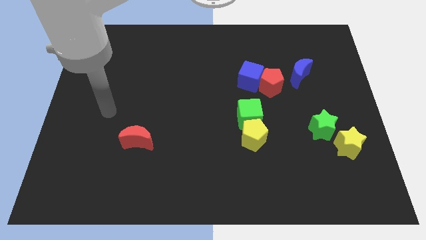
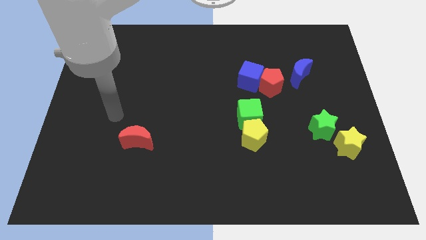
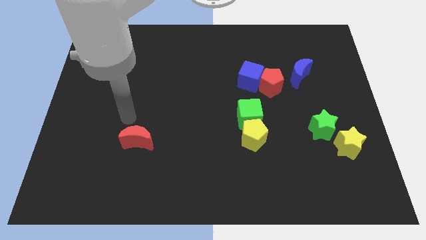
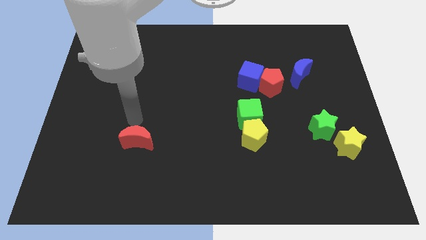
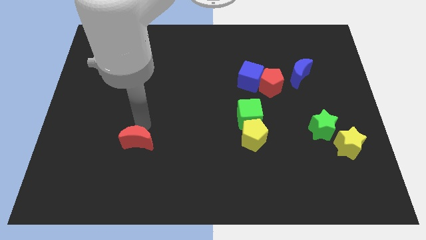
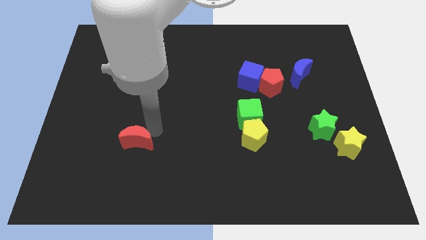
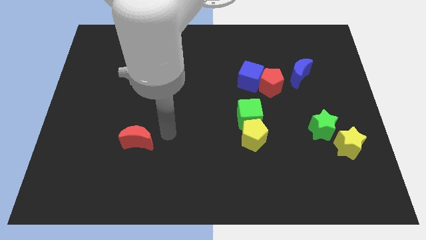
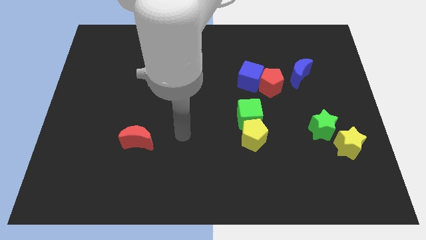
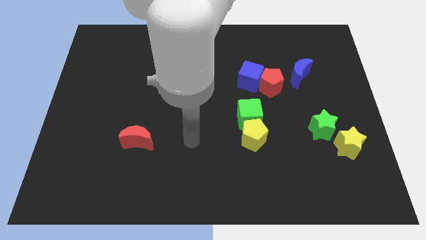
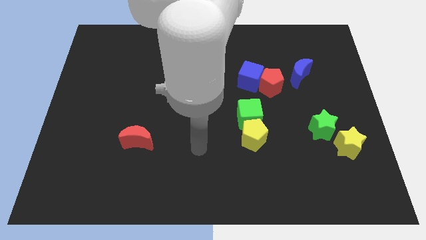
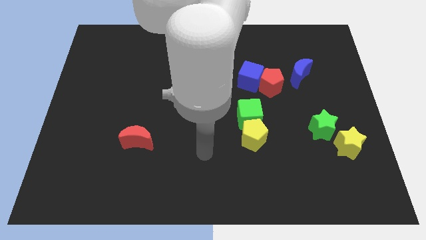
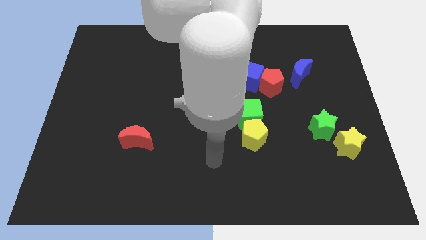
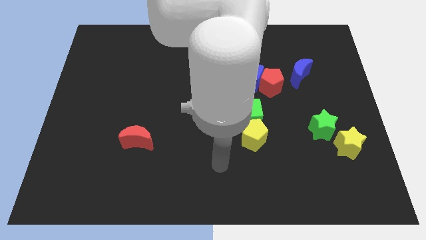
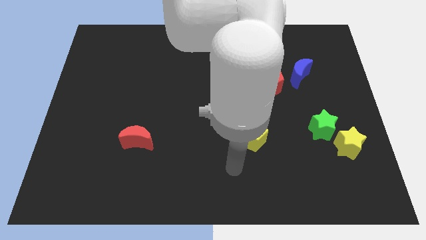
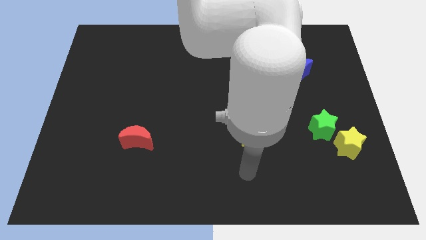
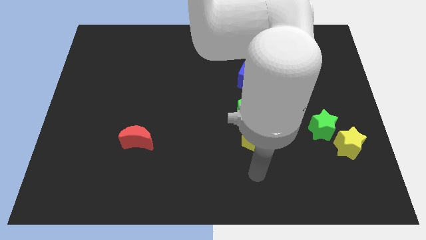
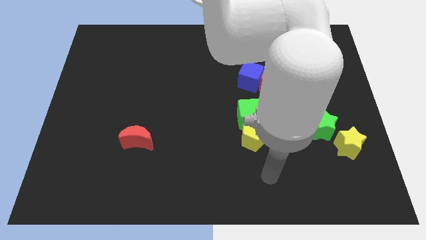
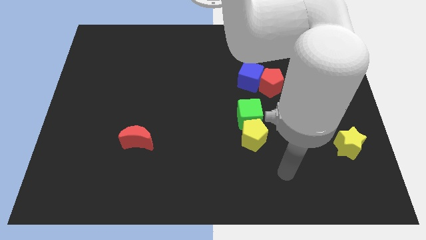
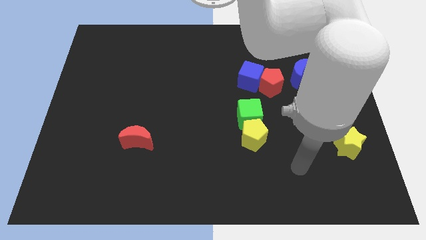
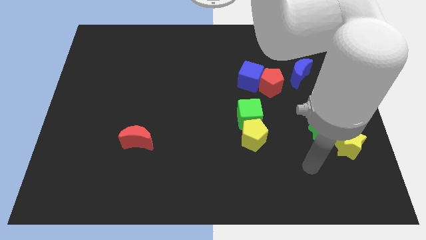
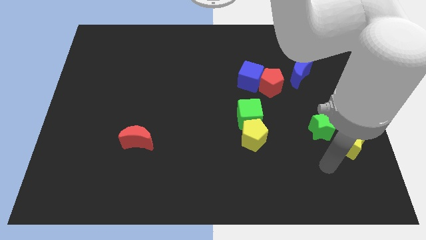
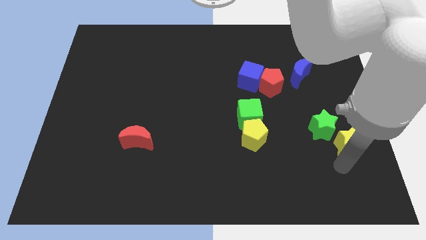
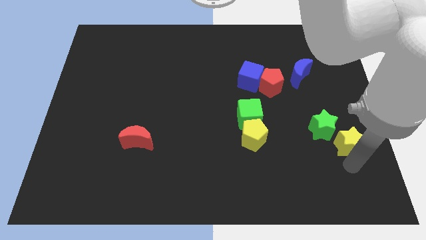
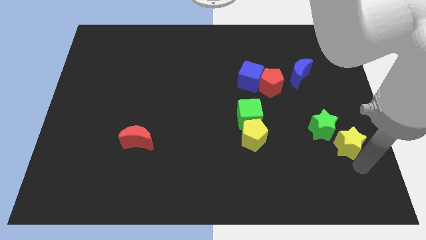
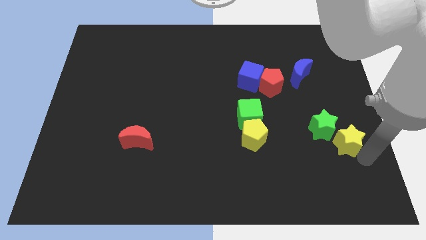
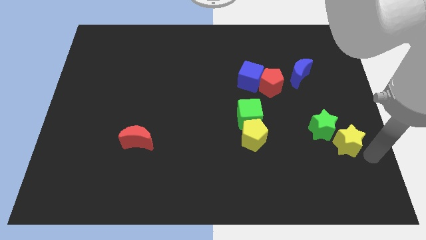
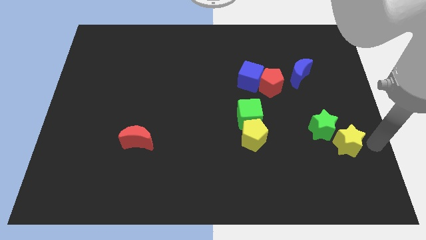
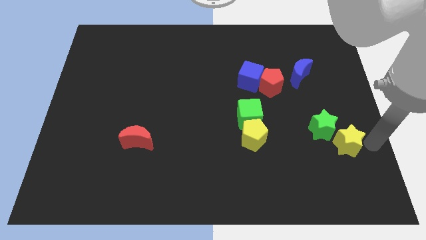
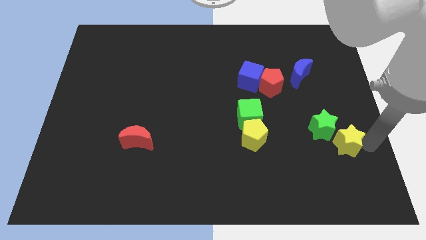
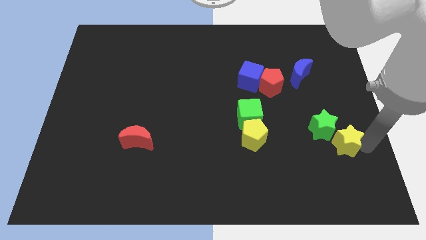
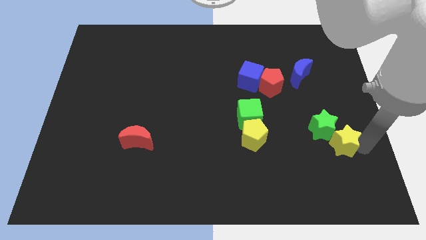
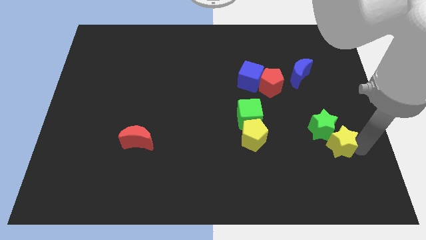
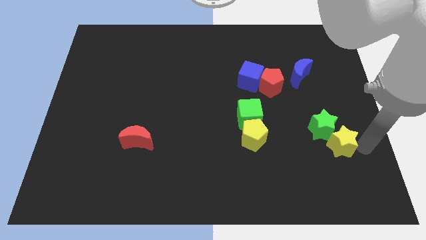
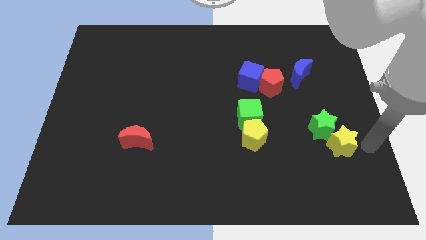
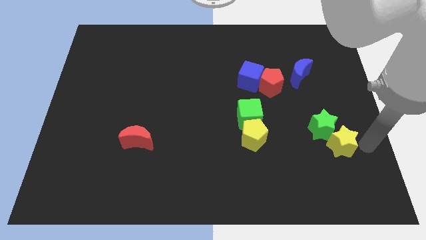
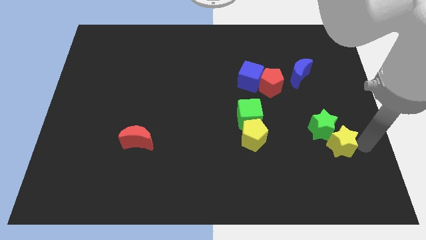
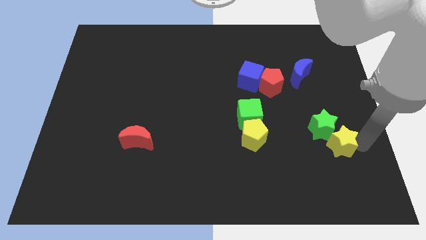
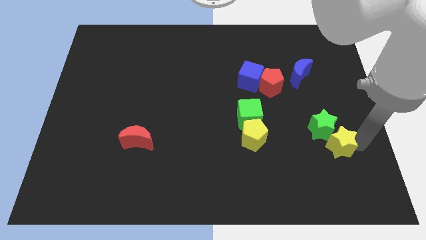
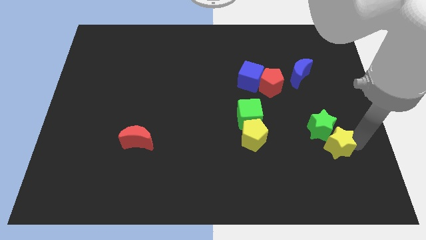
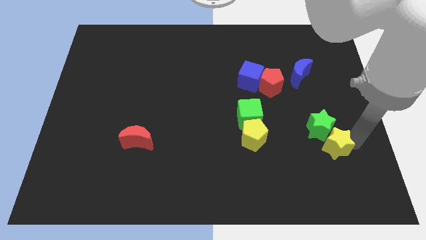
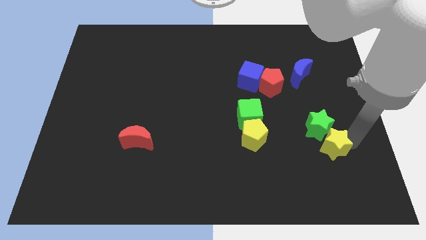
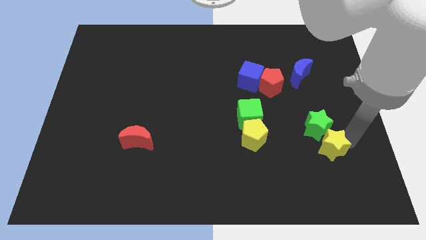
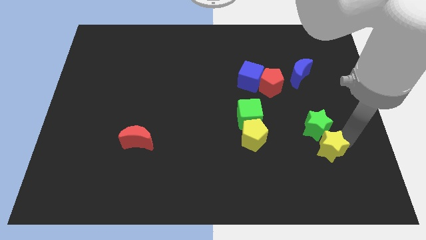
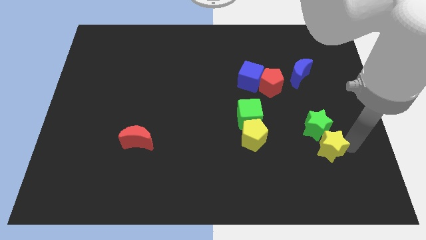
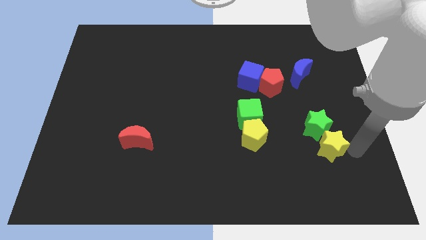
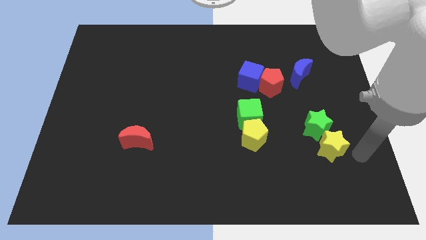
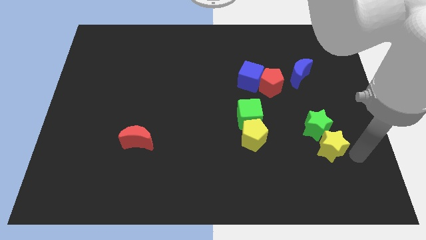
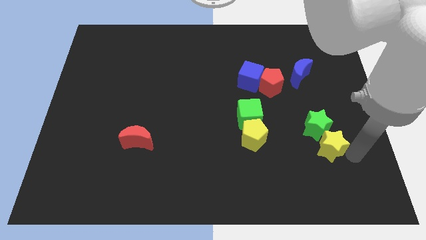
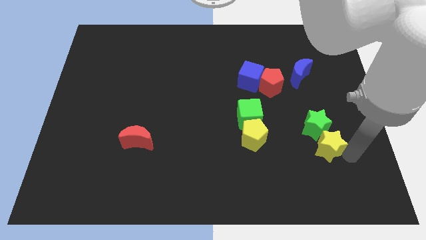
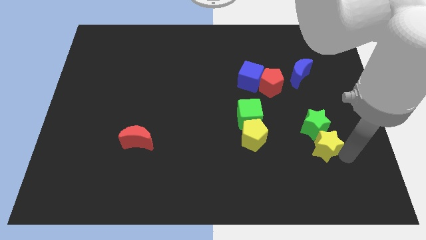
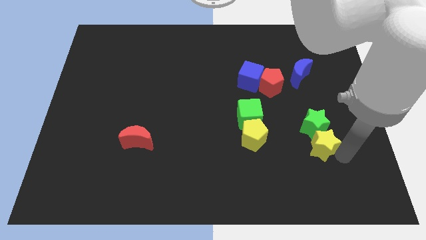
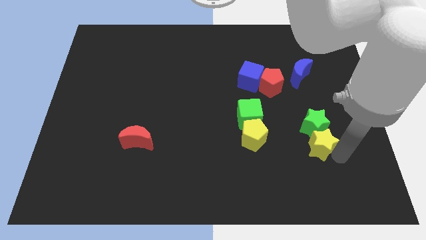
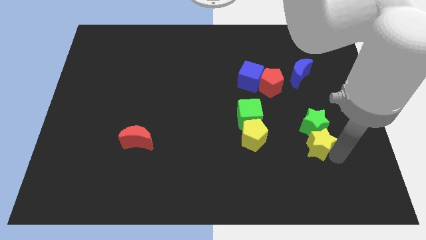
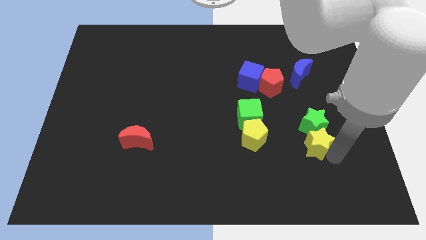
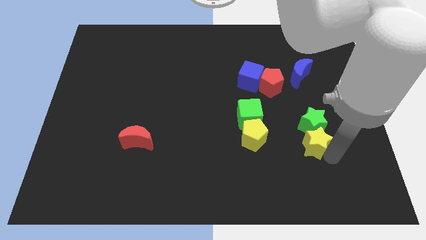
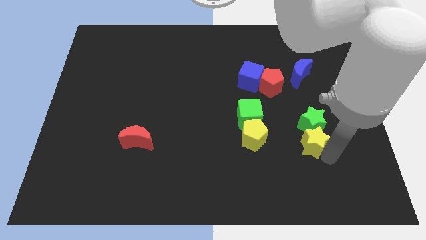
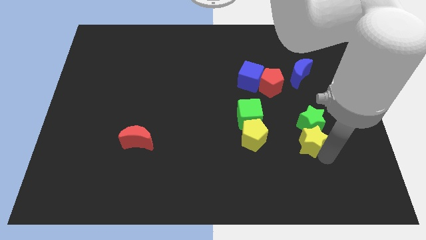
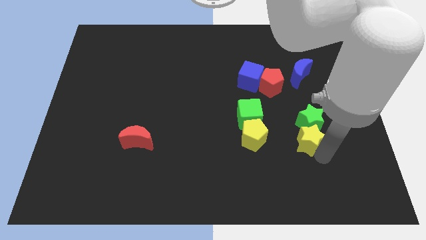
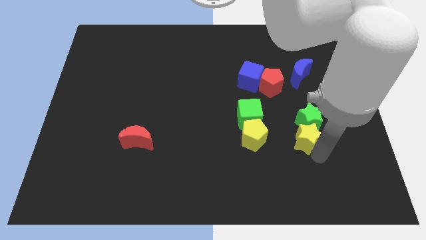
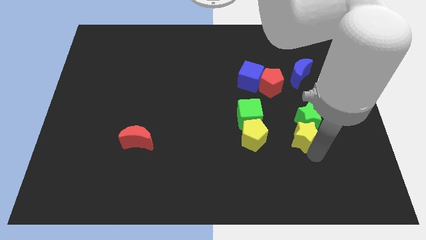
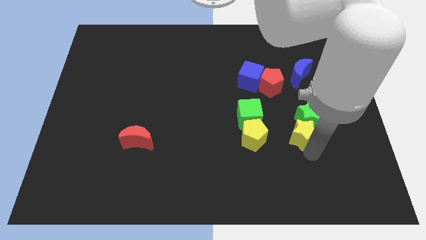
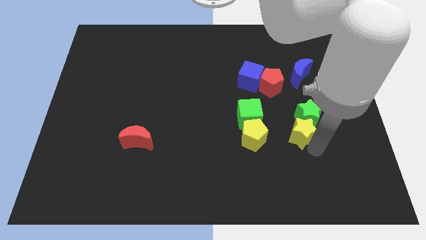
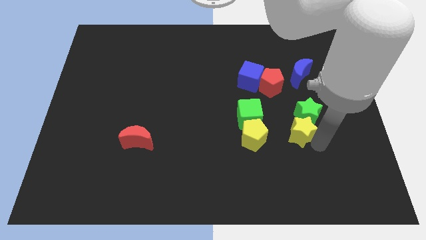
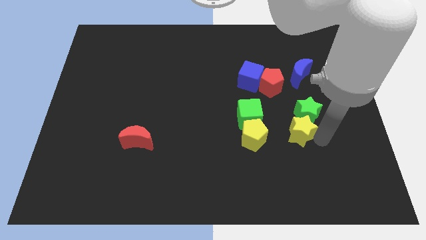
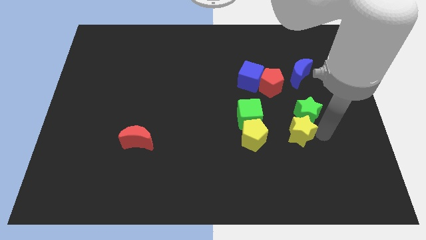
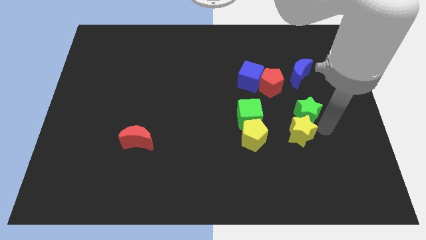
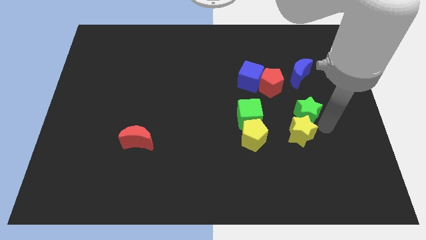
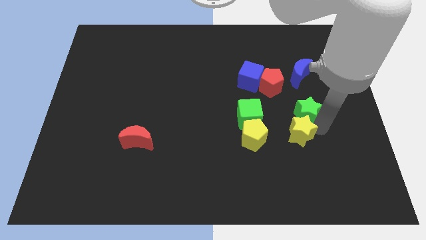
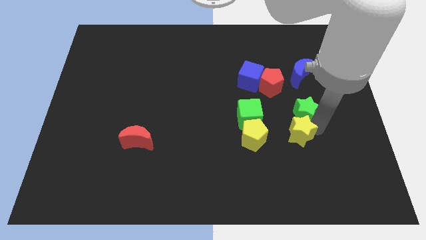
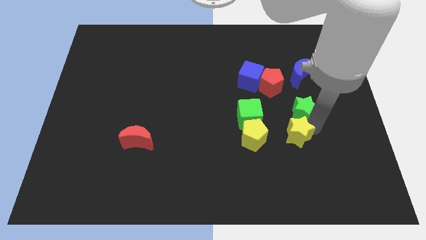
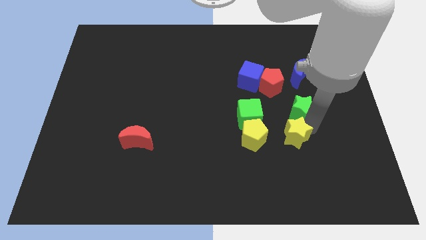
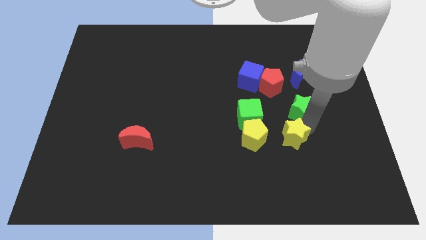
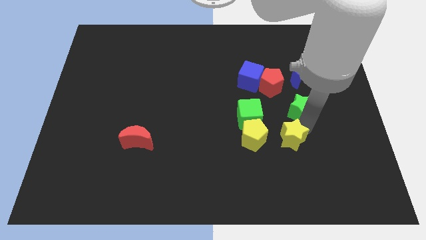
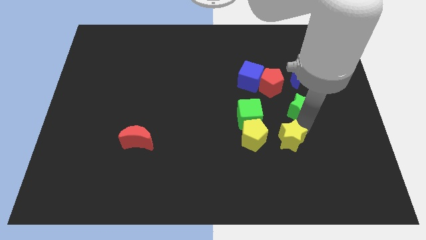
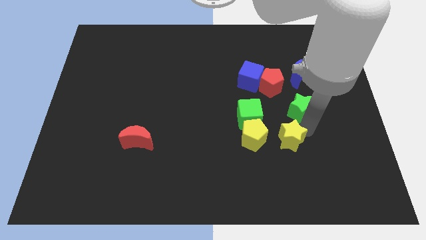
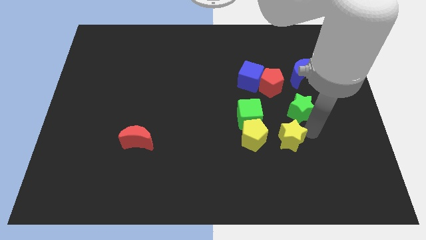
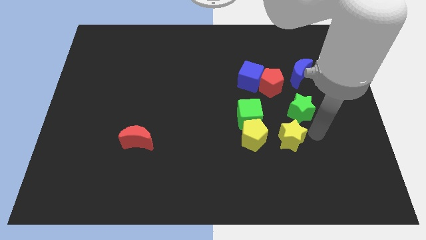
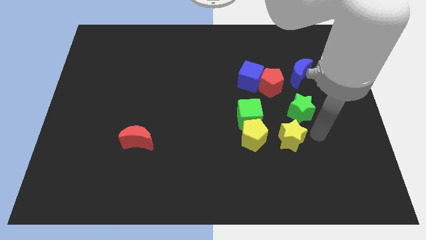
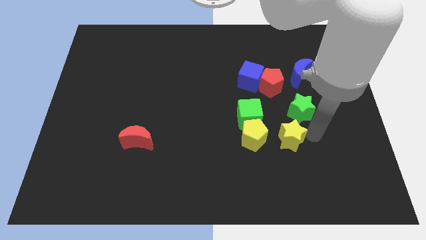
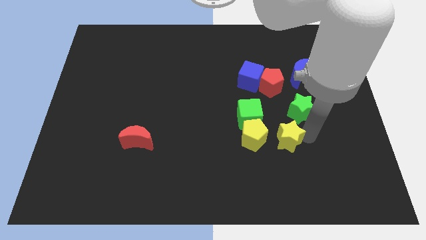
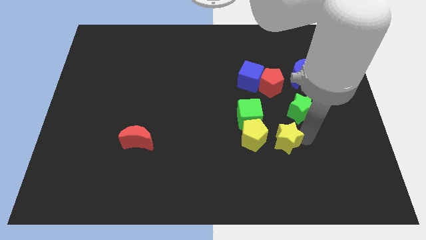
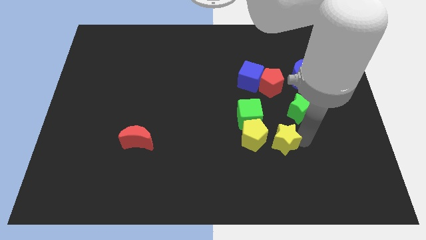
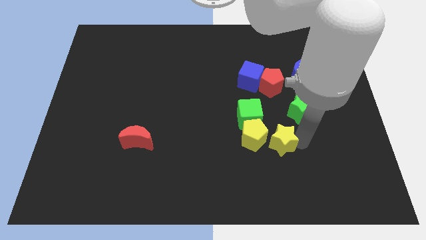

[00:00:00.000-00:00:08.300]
move the yellow star next to the yellow pentagon

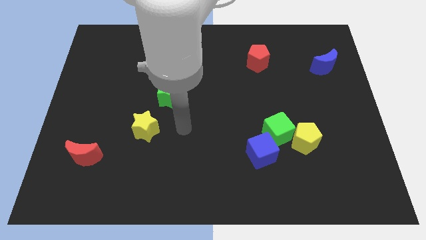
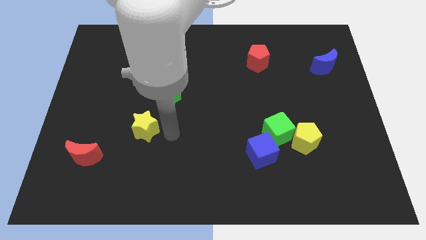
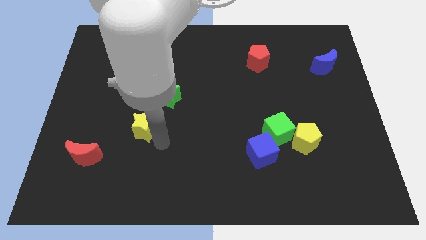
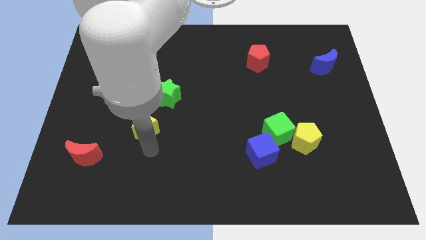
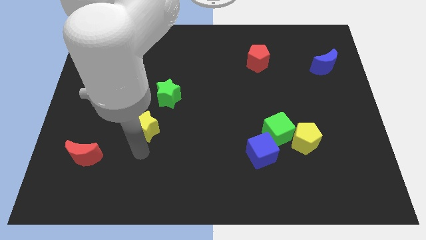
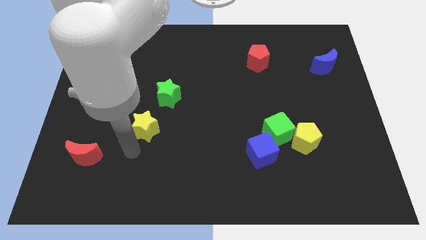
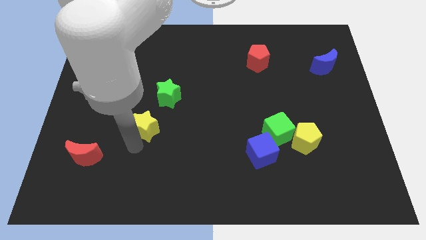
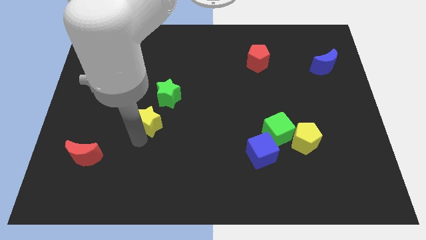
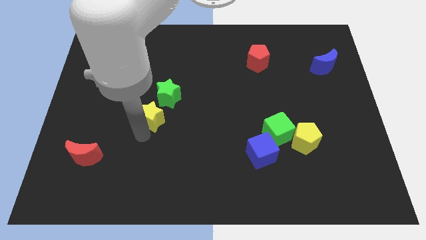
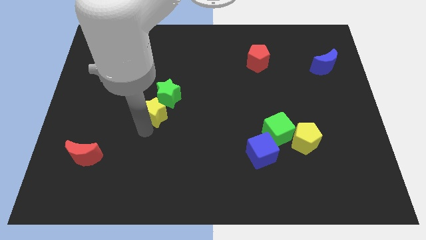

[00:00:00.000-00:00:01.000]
move the yellow star close to the green star
